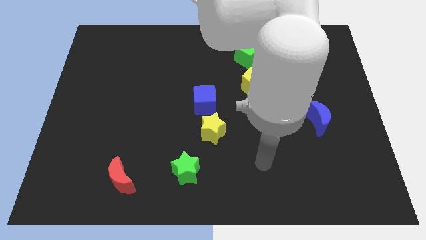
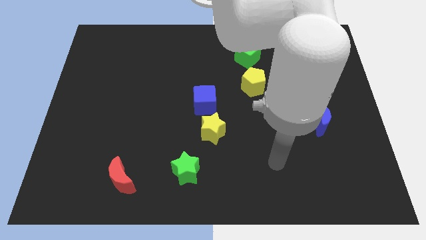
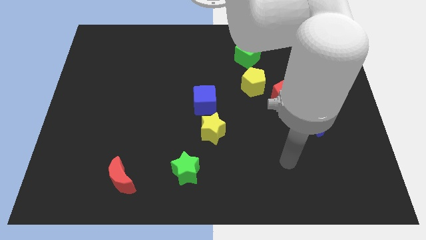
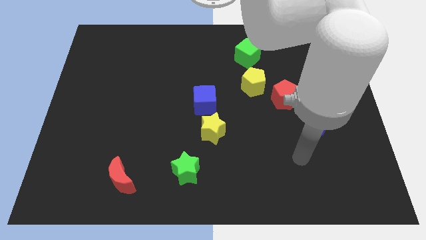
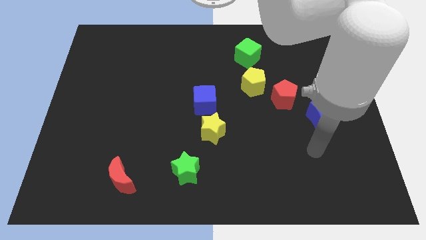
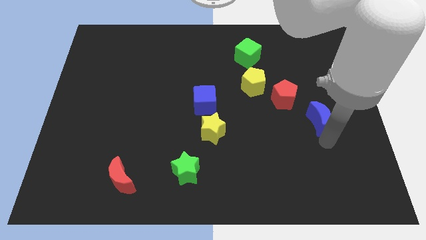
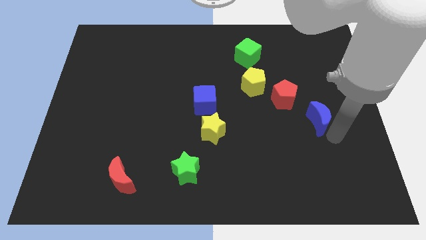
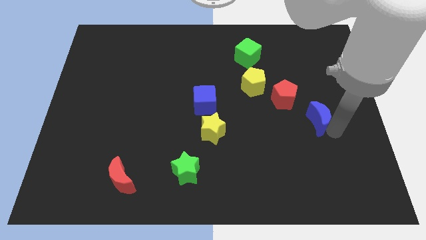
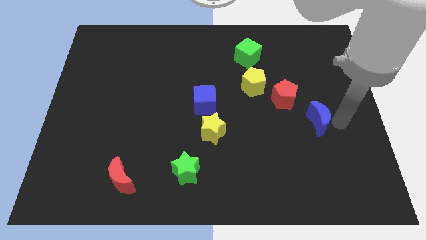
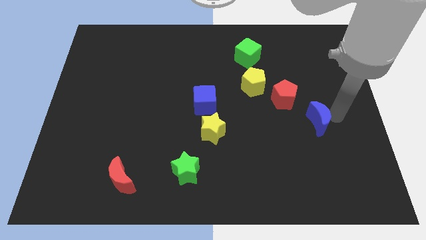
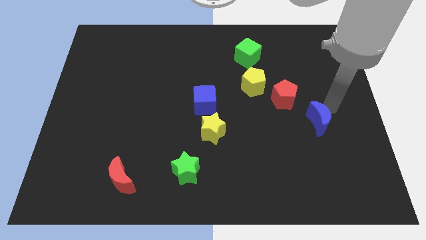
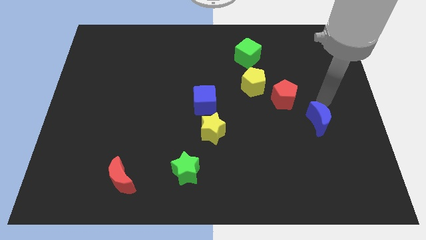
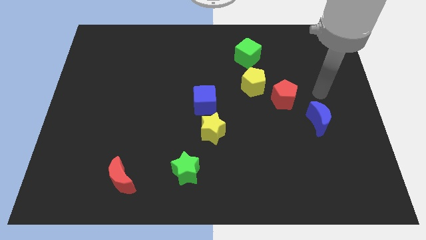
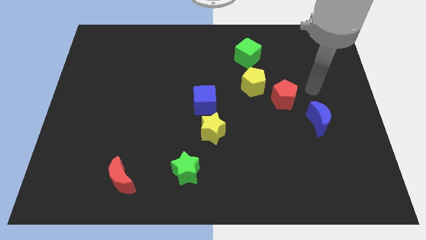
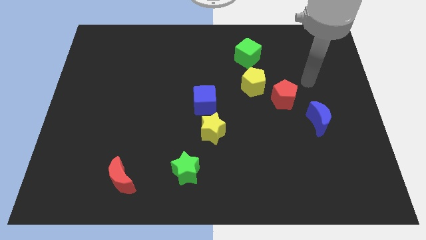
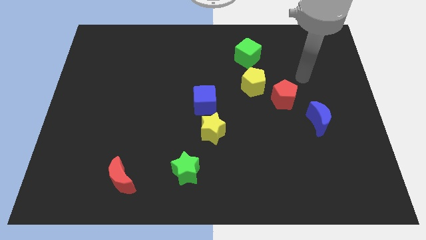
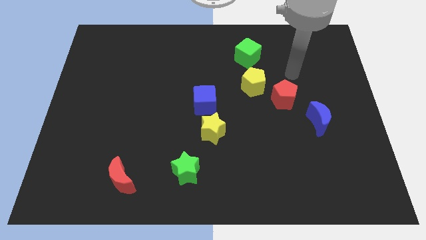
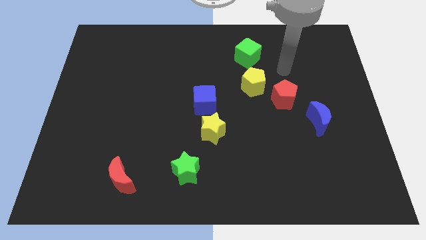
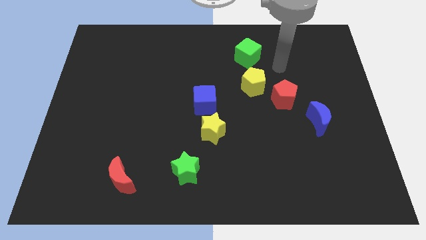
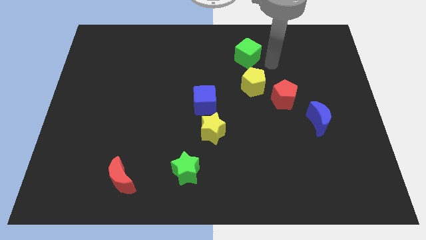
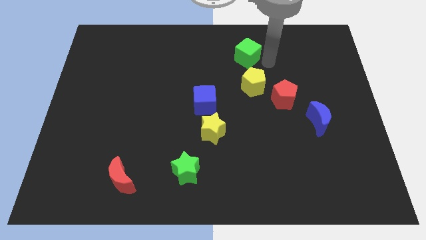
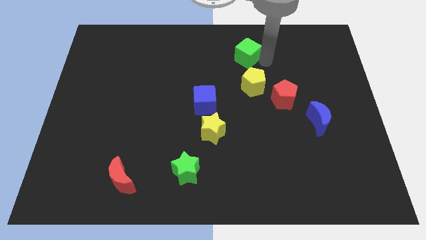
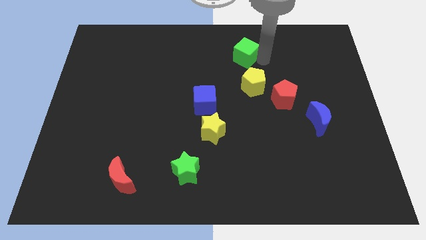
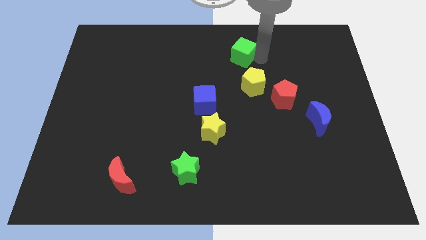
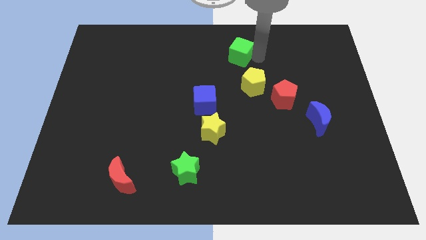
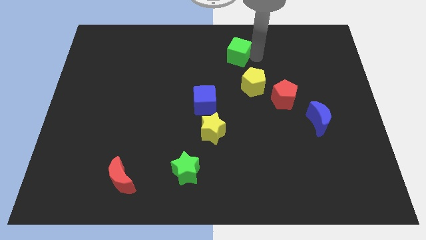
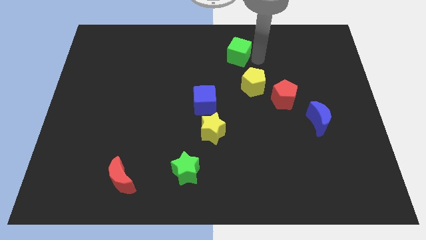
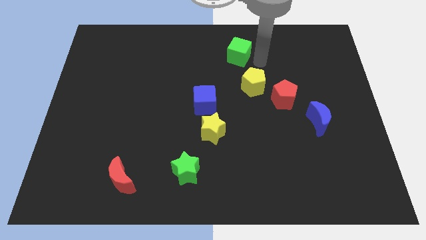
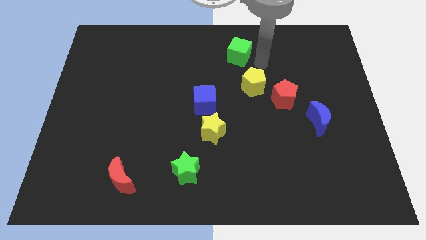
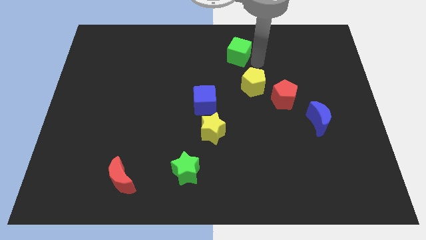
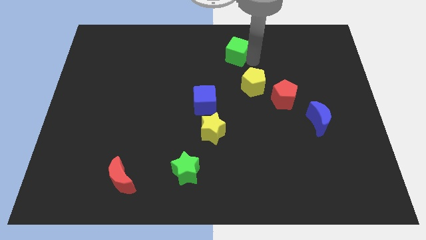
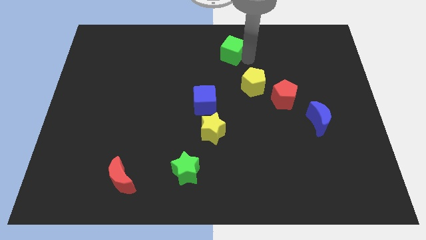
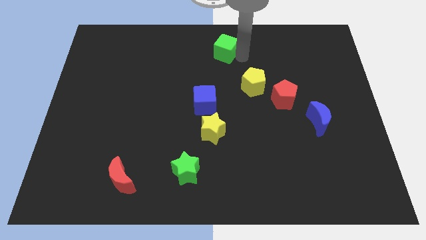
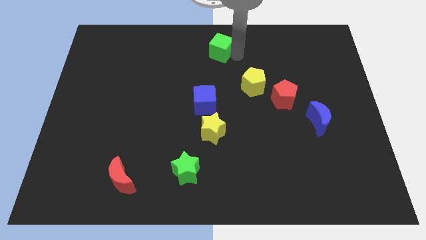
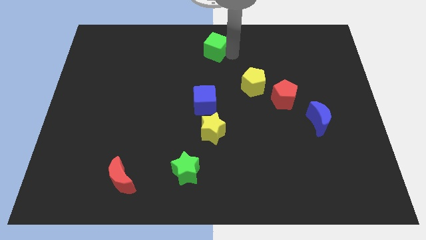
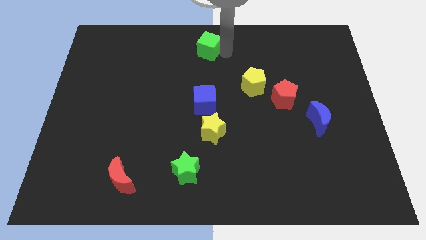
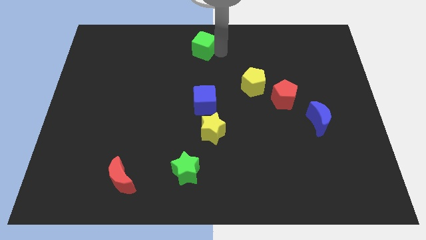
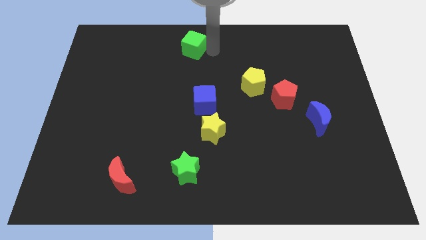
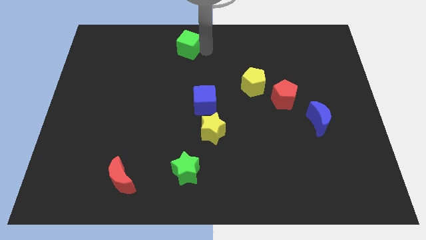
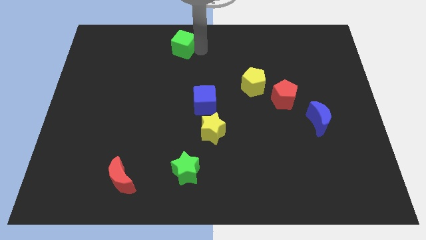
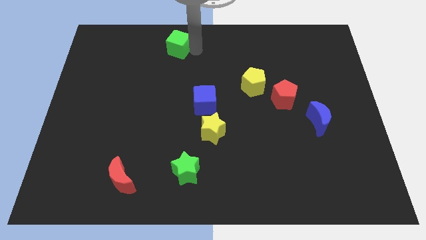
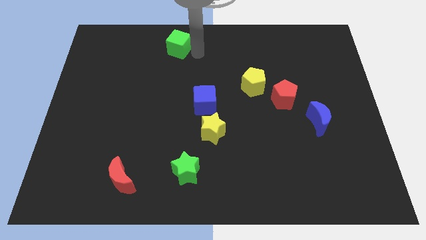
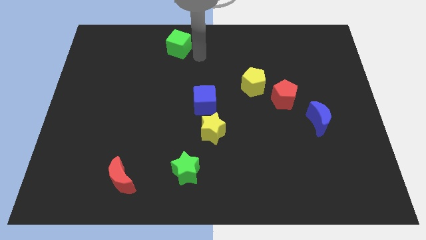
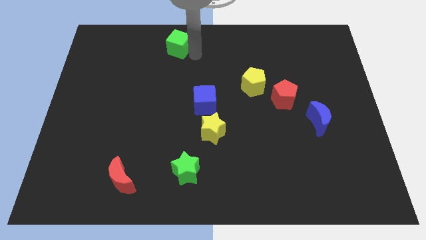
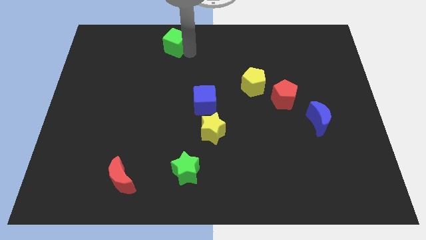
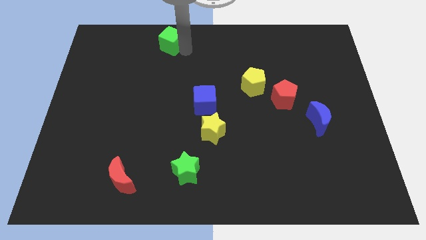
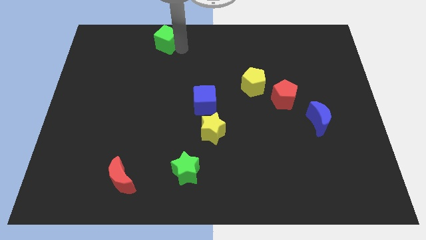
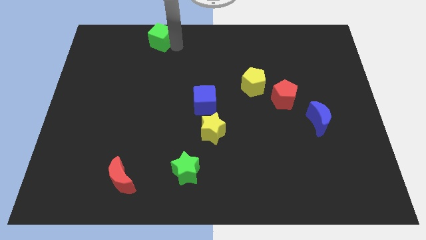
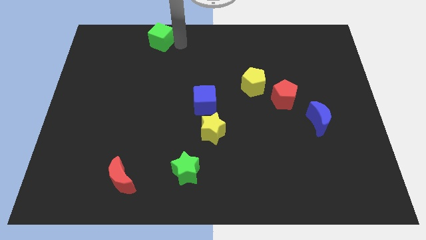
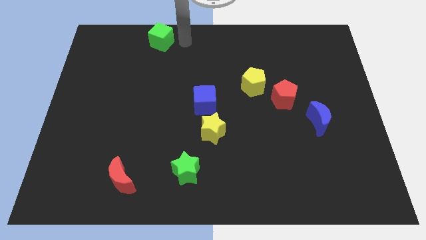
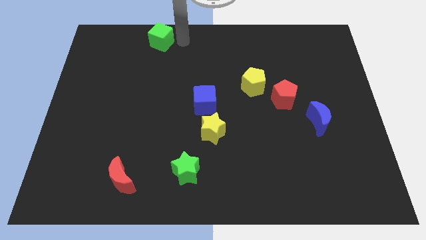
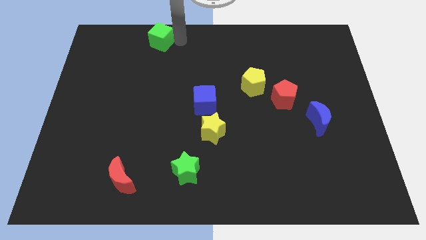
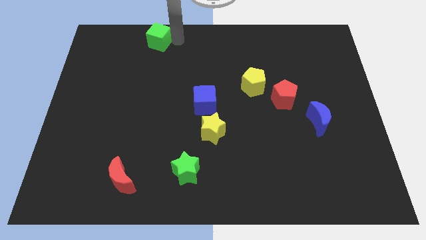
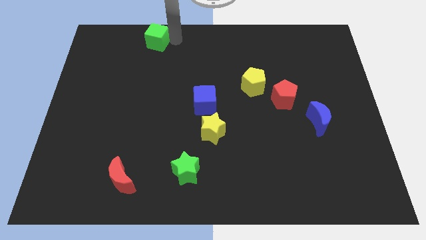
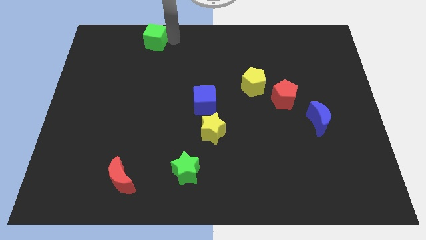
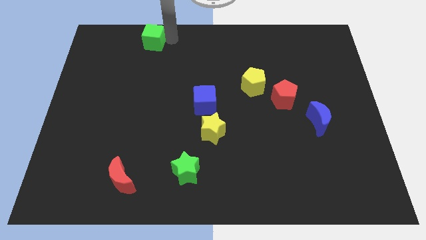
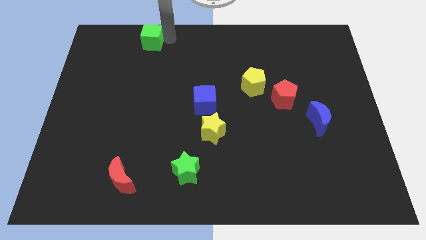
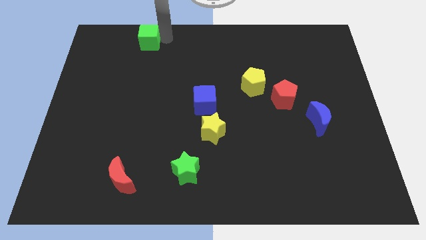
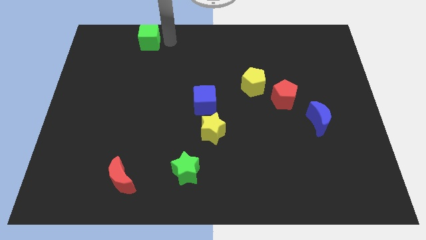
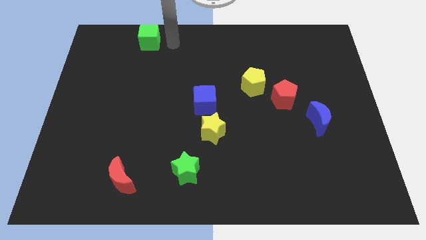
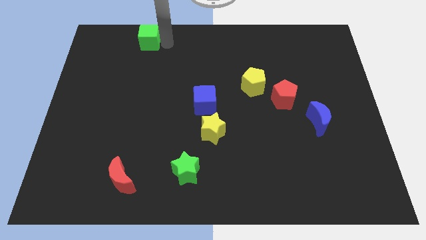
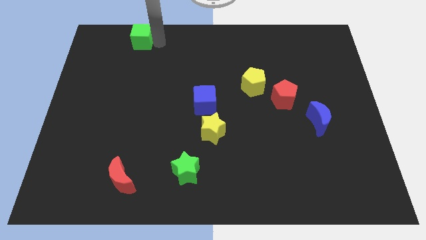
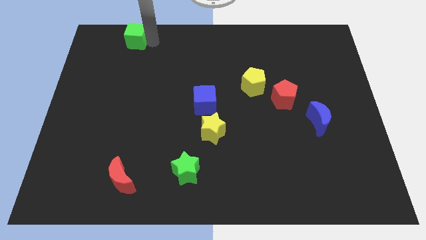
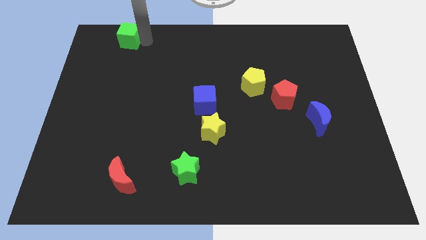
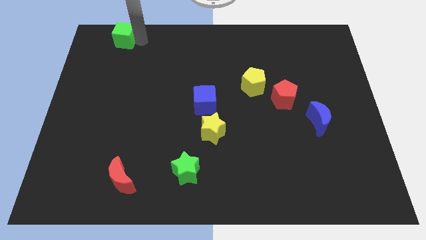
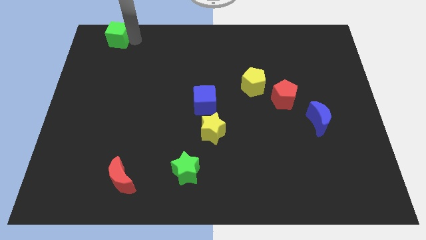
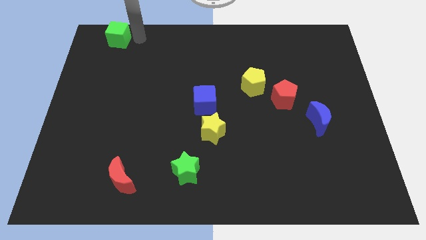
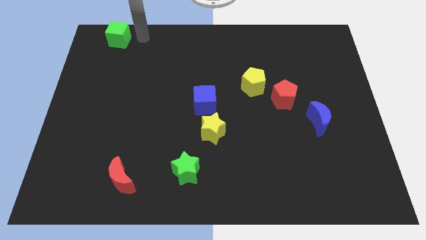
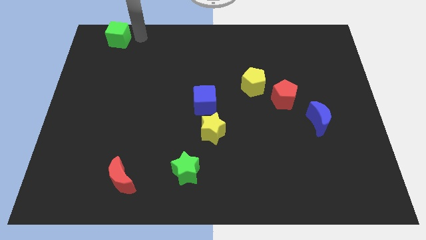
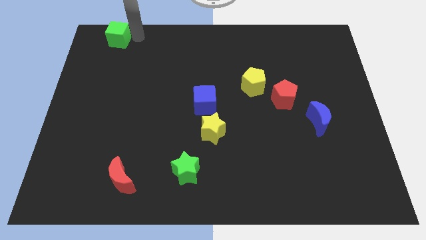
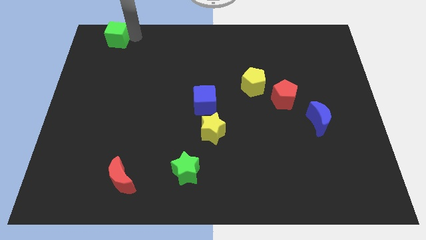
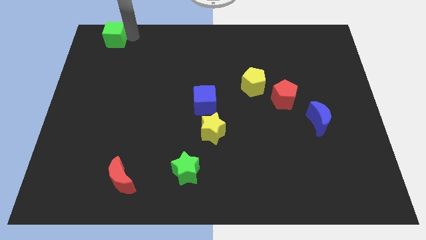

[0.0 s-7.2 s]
slide the green cube to the top left of the board

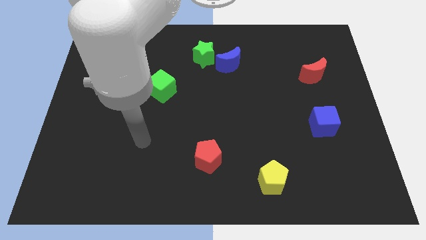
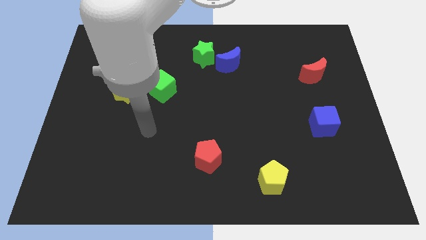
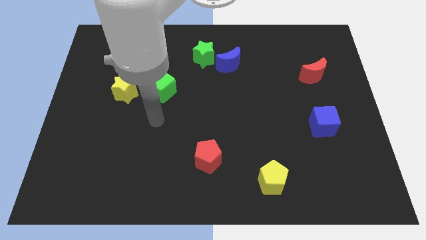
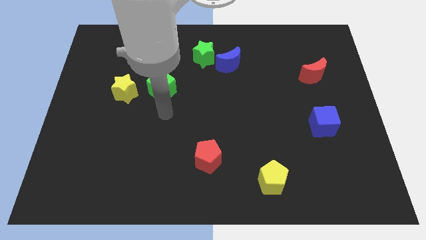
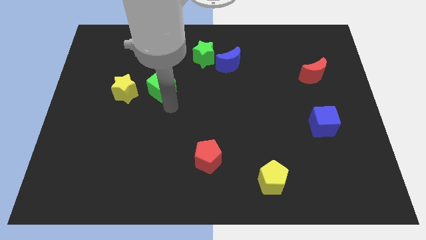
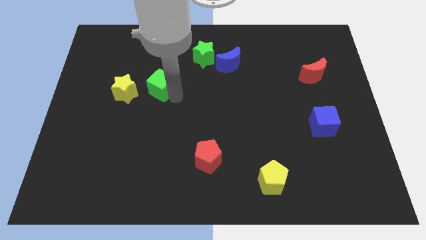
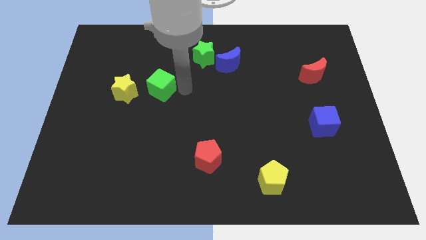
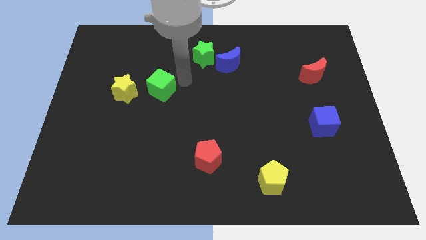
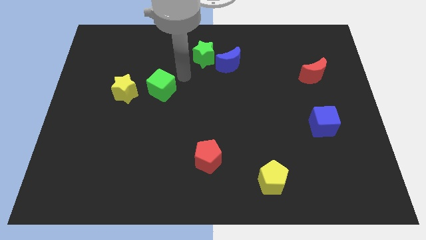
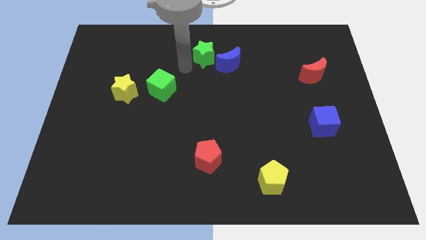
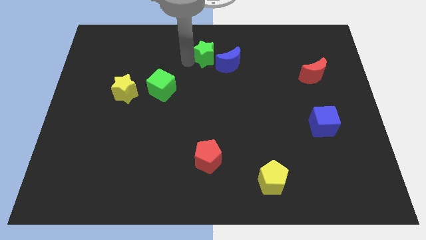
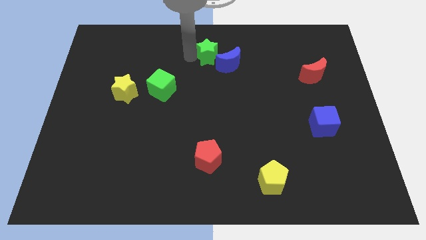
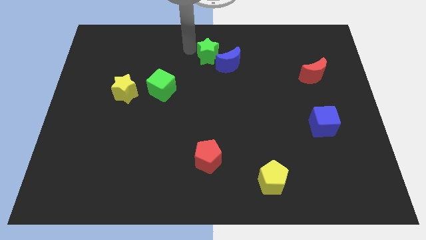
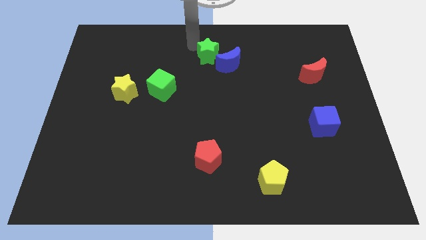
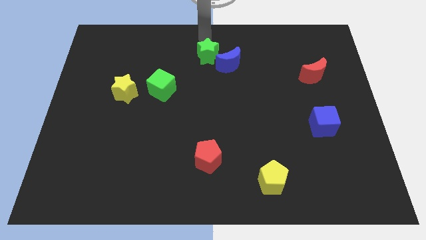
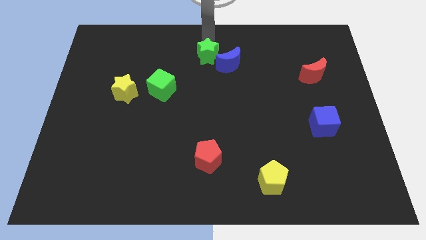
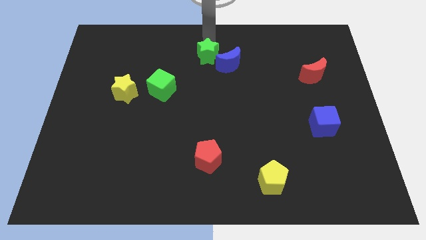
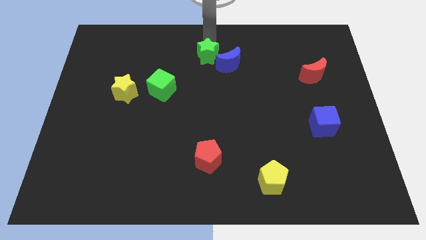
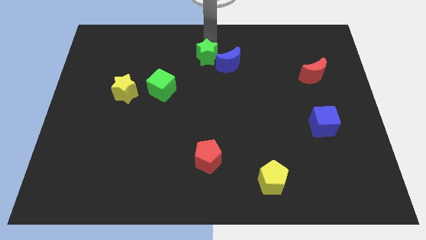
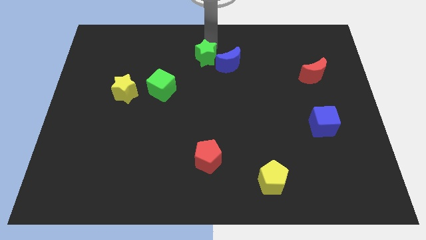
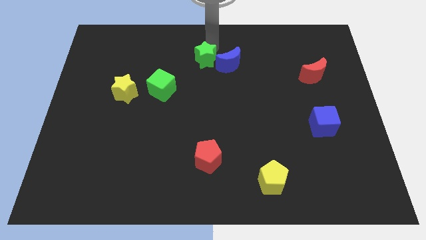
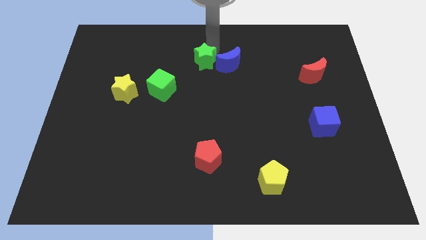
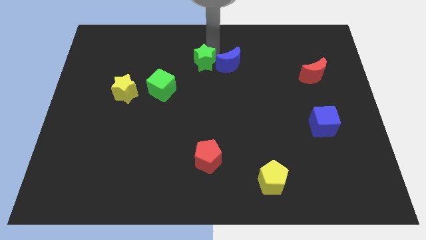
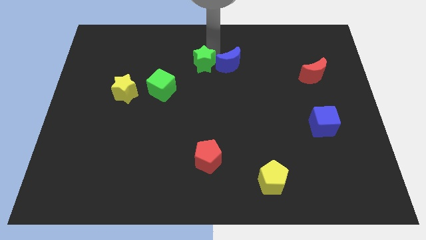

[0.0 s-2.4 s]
move the green star to the center of the board
